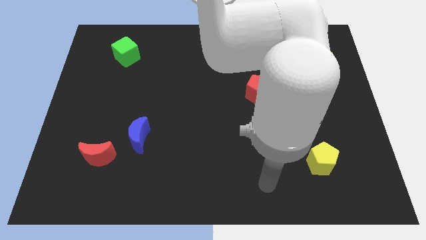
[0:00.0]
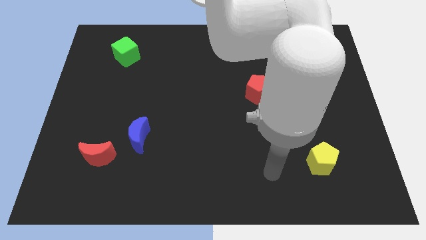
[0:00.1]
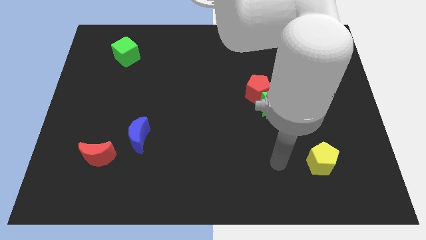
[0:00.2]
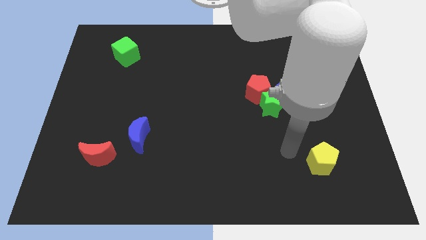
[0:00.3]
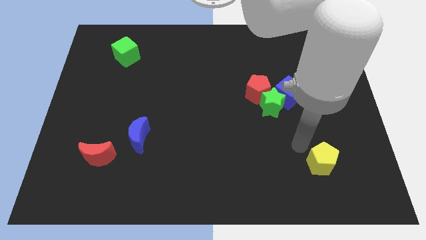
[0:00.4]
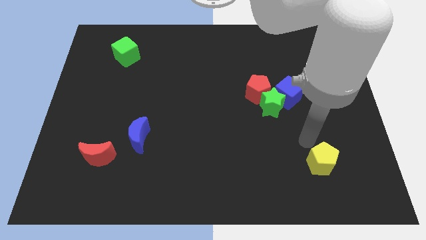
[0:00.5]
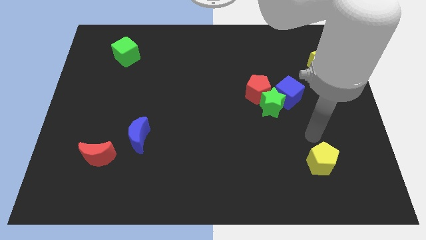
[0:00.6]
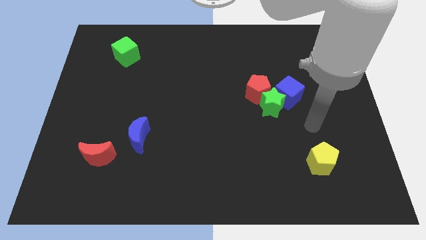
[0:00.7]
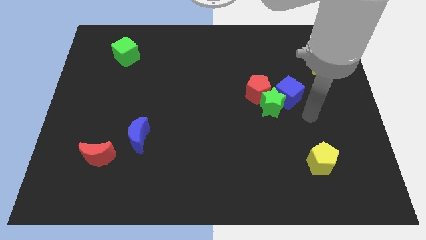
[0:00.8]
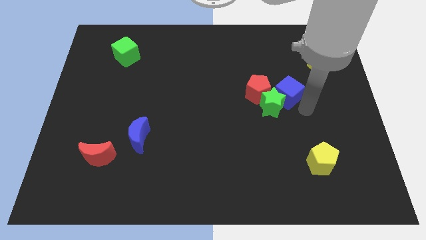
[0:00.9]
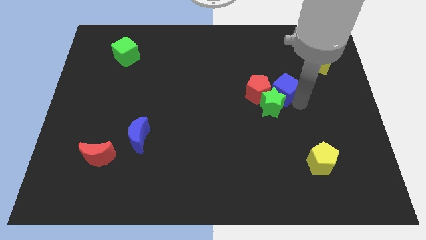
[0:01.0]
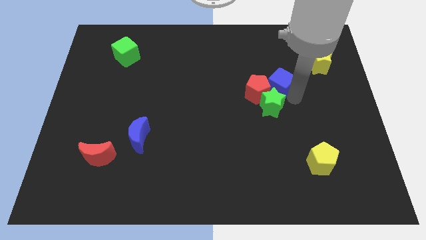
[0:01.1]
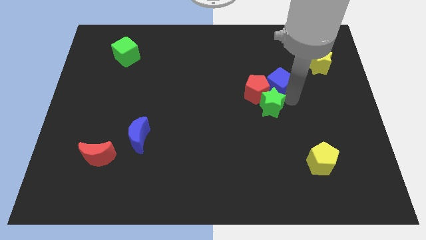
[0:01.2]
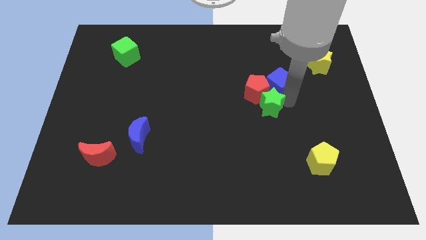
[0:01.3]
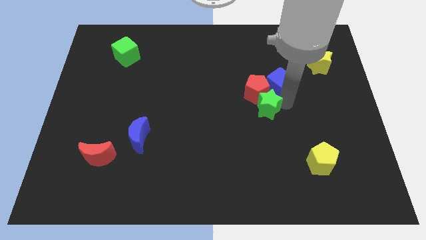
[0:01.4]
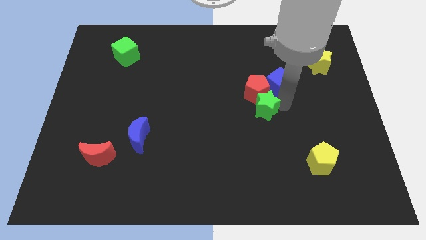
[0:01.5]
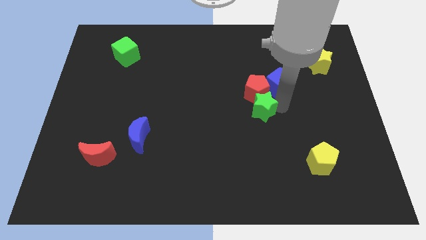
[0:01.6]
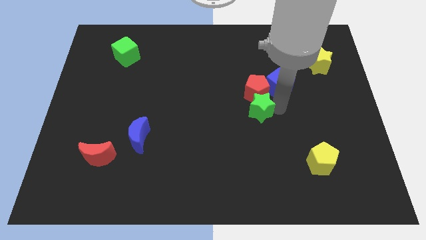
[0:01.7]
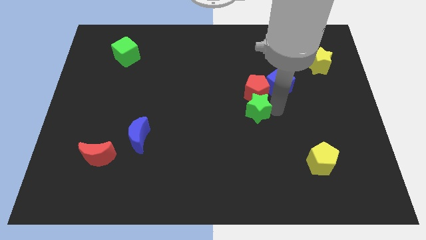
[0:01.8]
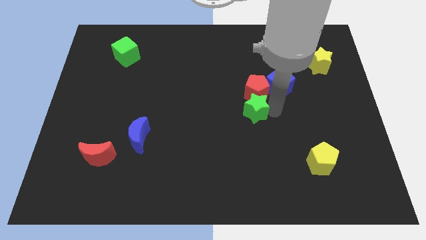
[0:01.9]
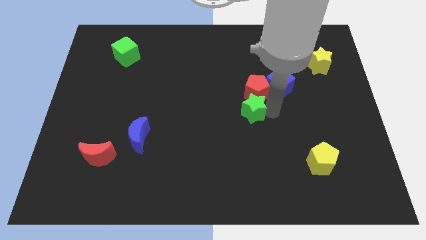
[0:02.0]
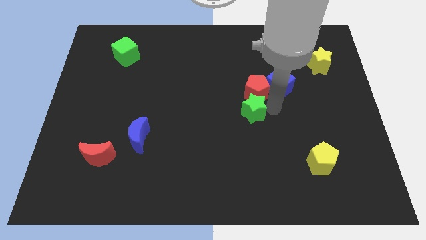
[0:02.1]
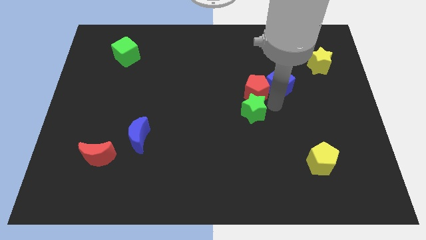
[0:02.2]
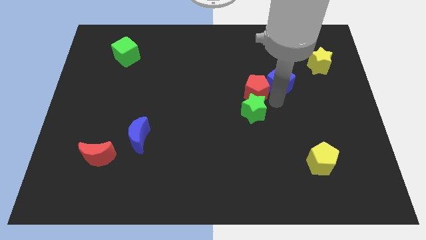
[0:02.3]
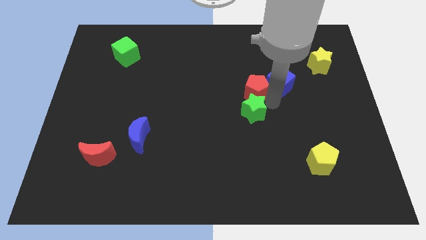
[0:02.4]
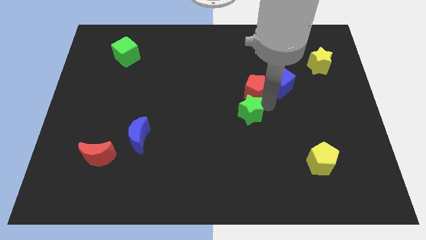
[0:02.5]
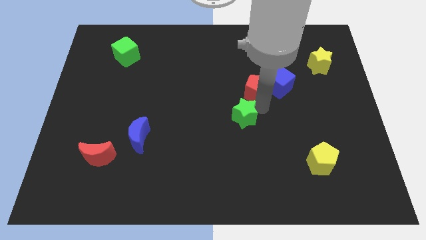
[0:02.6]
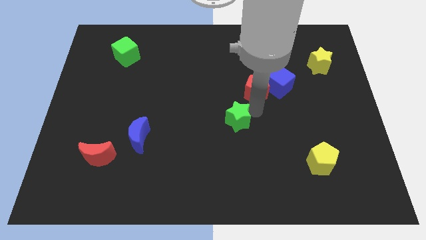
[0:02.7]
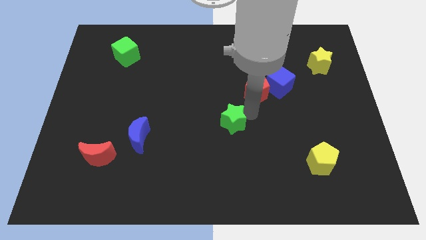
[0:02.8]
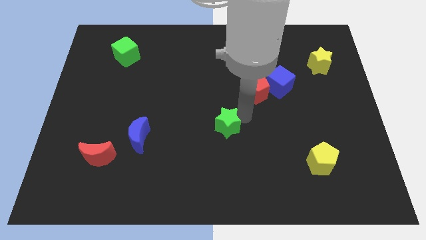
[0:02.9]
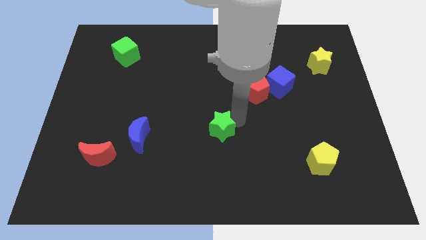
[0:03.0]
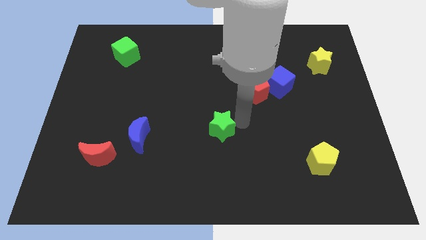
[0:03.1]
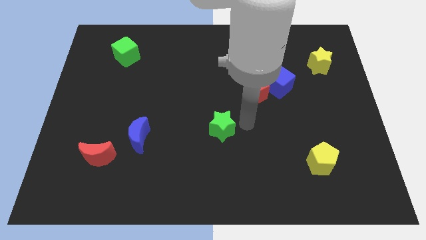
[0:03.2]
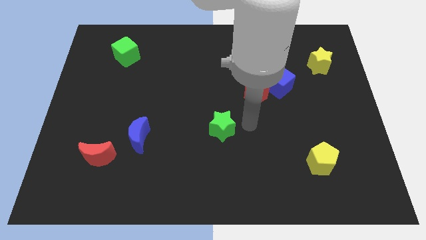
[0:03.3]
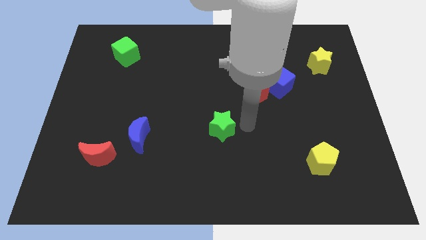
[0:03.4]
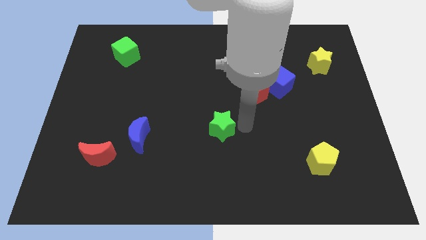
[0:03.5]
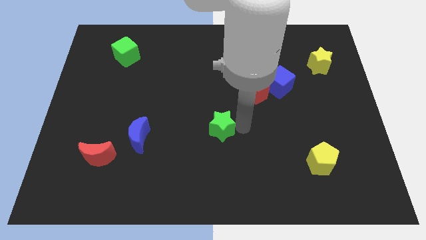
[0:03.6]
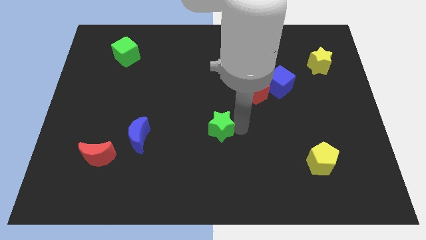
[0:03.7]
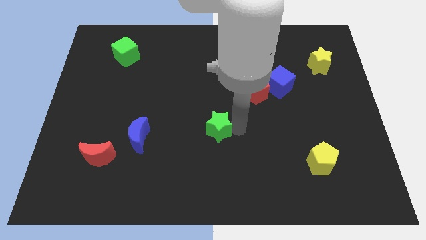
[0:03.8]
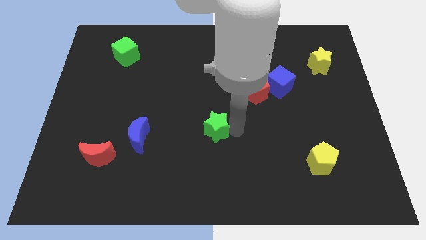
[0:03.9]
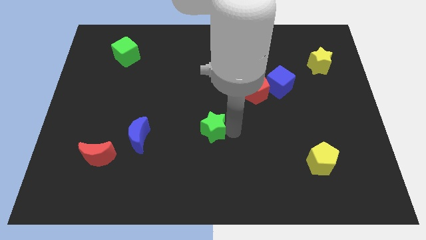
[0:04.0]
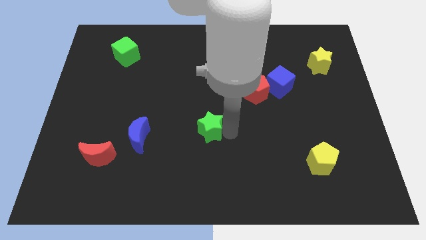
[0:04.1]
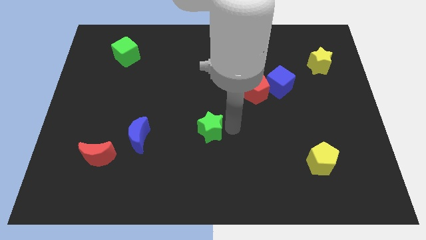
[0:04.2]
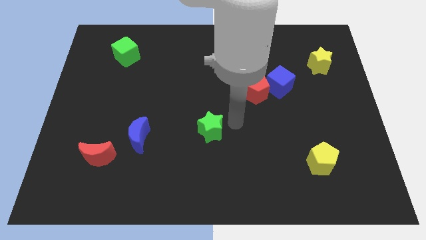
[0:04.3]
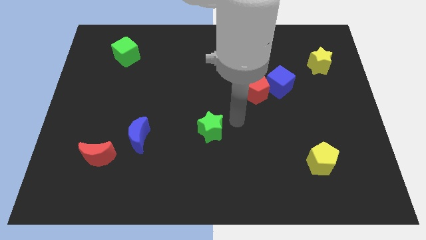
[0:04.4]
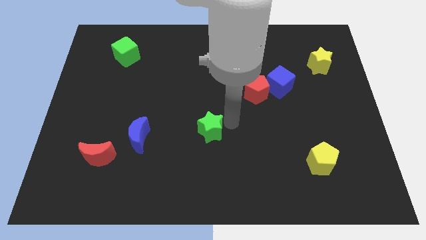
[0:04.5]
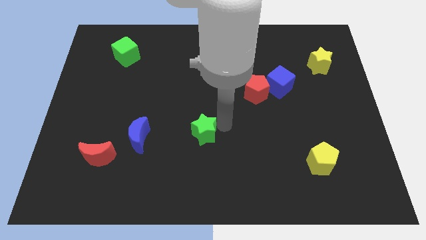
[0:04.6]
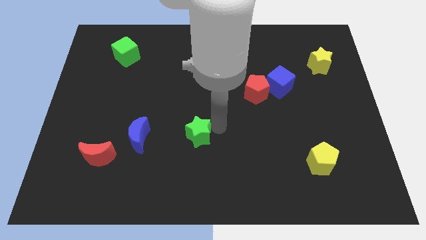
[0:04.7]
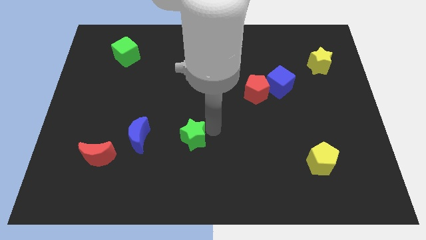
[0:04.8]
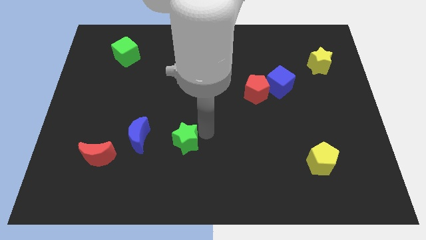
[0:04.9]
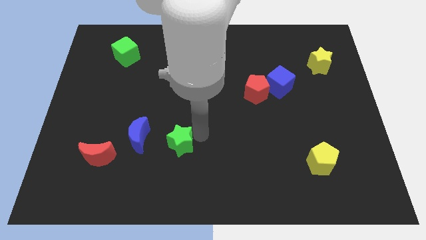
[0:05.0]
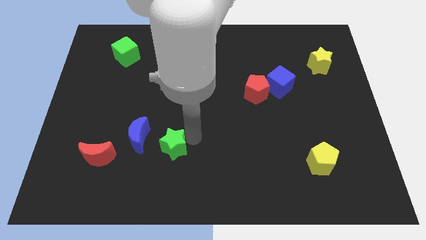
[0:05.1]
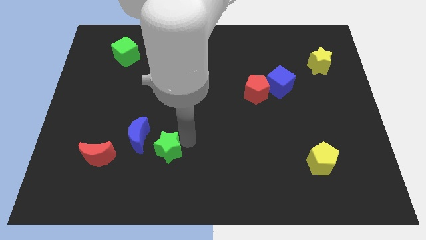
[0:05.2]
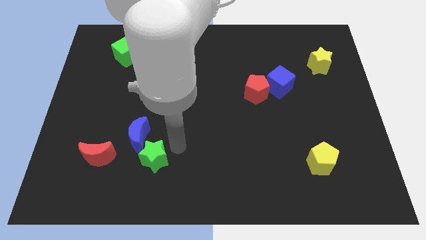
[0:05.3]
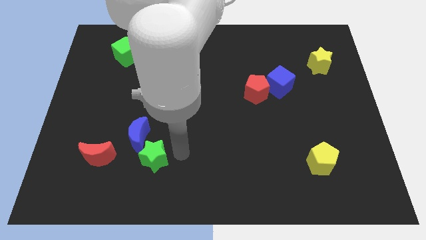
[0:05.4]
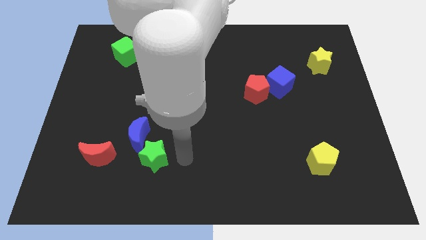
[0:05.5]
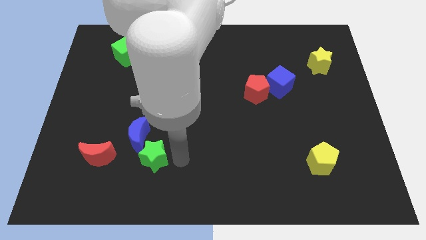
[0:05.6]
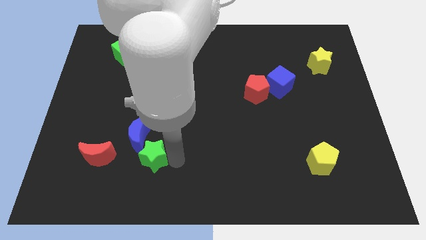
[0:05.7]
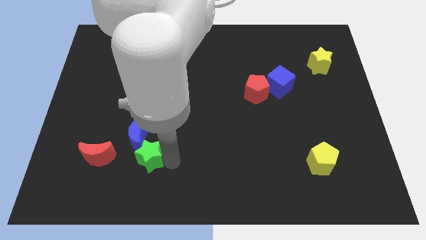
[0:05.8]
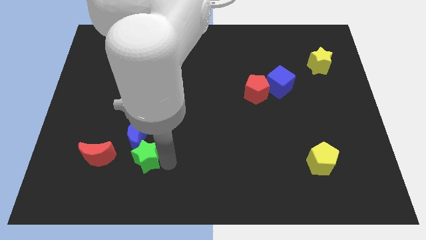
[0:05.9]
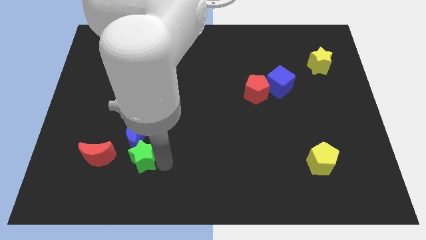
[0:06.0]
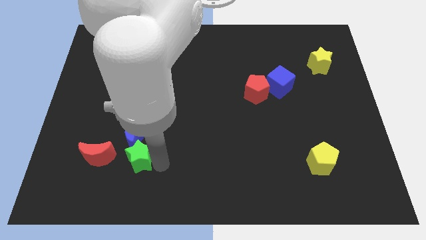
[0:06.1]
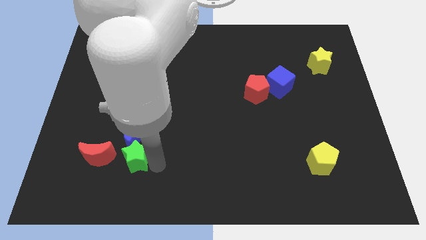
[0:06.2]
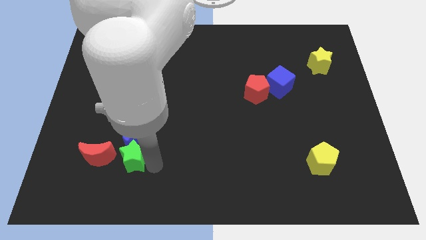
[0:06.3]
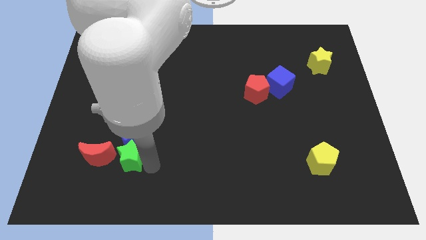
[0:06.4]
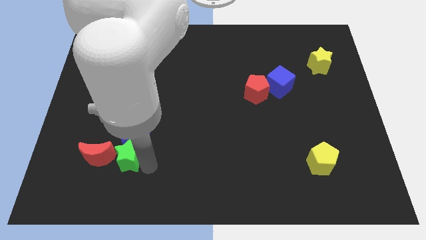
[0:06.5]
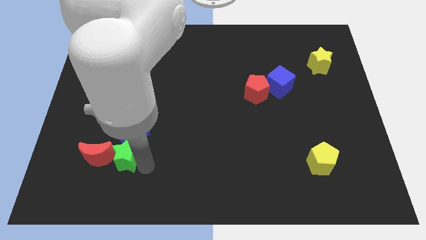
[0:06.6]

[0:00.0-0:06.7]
push the green star to the red moon

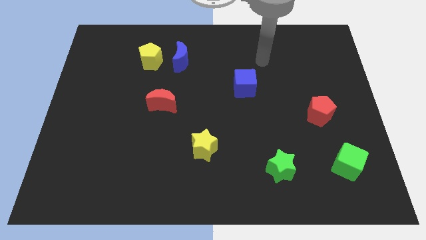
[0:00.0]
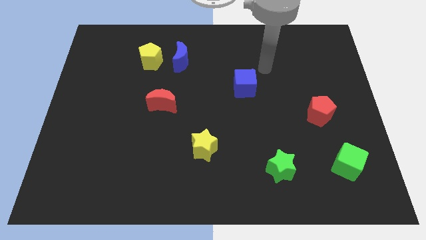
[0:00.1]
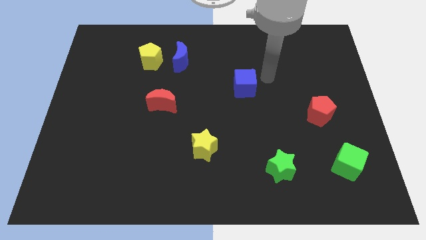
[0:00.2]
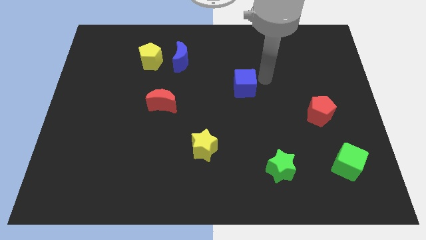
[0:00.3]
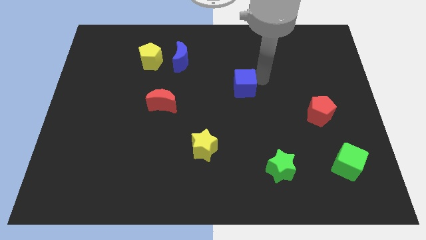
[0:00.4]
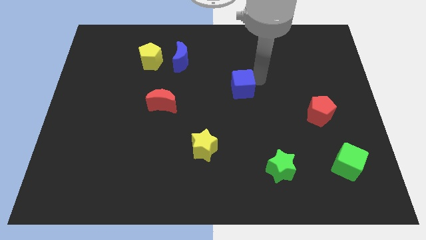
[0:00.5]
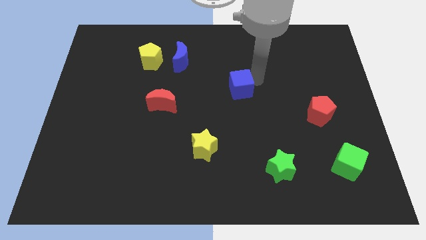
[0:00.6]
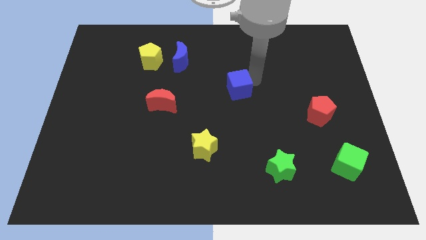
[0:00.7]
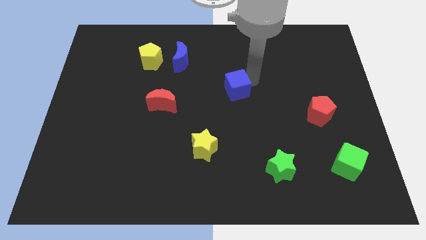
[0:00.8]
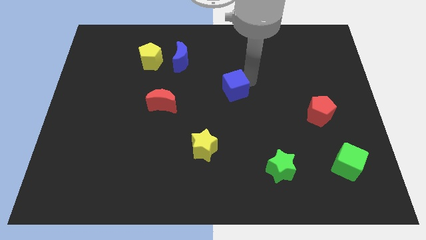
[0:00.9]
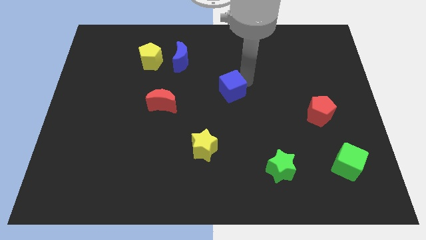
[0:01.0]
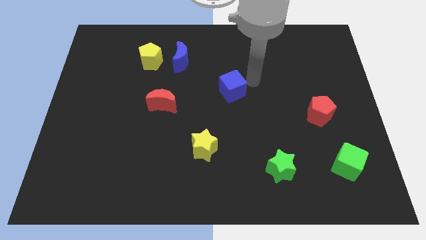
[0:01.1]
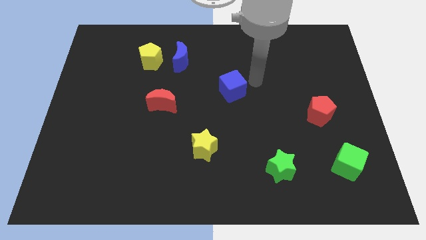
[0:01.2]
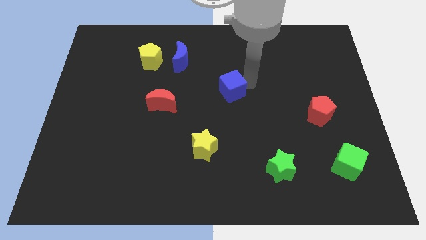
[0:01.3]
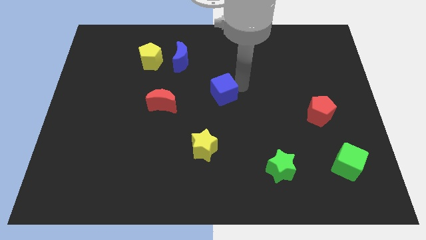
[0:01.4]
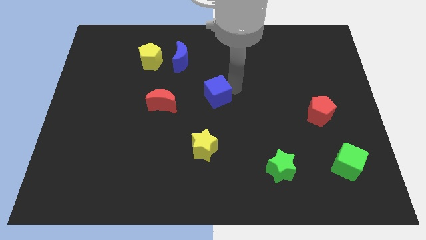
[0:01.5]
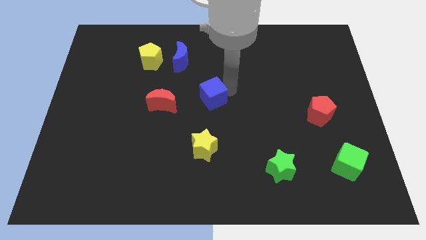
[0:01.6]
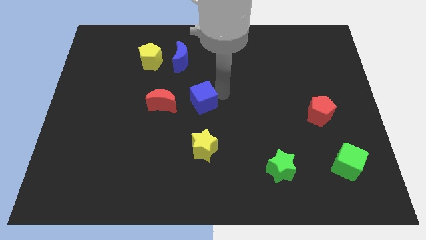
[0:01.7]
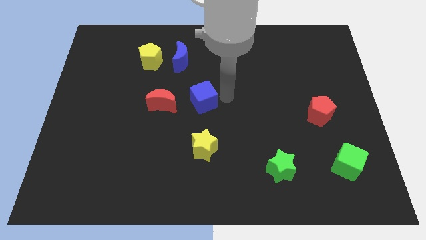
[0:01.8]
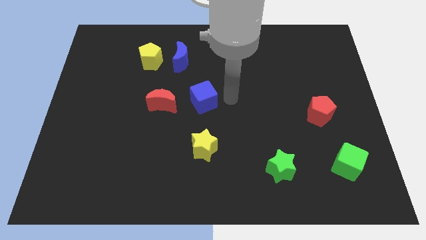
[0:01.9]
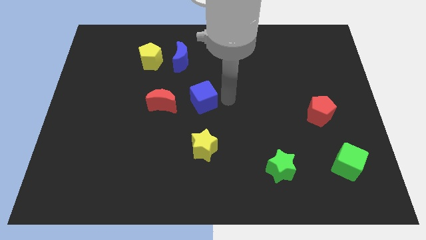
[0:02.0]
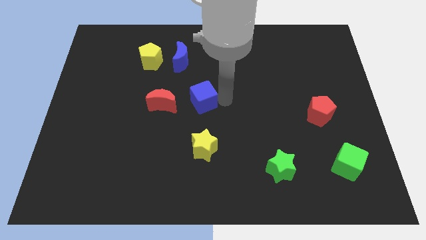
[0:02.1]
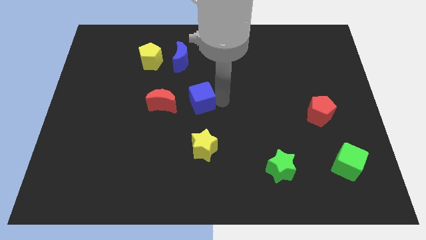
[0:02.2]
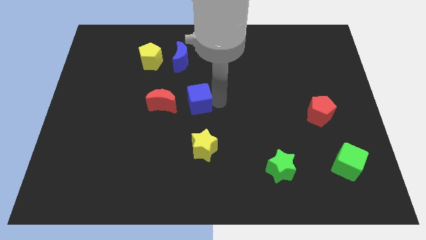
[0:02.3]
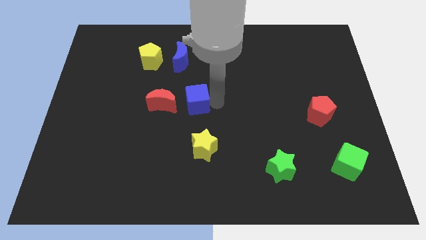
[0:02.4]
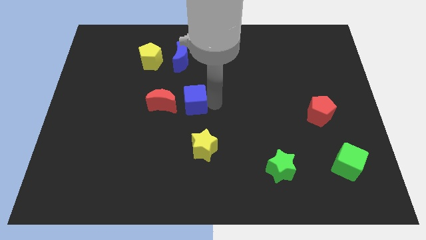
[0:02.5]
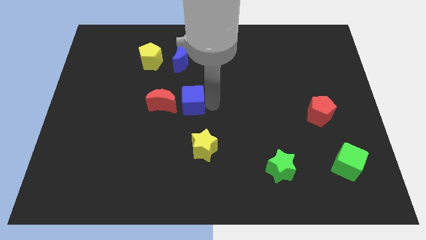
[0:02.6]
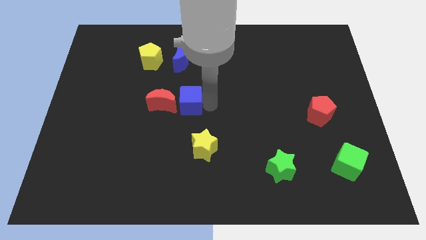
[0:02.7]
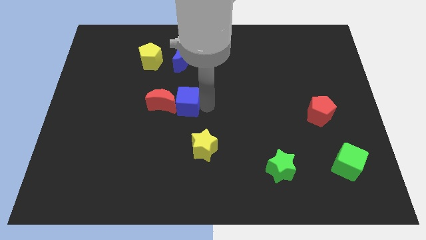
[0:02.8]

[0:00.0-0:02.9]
slide the blue cube to the red moon
